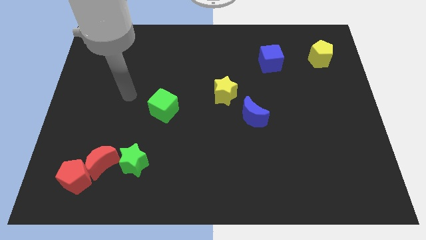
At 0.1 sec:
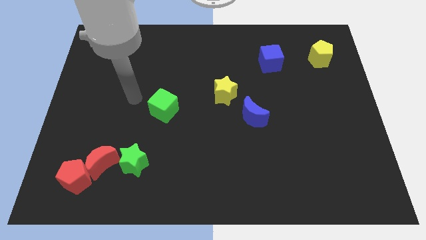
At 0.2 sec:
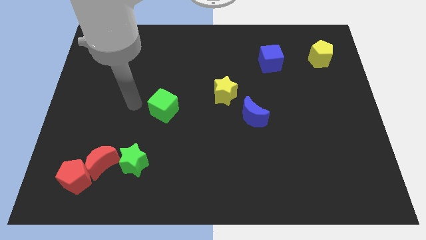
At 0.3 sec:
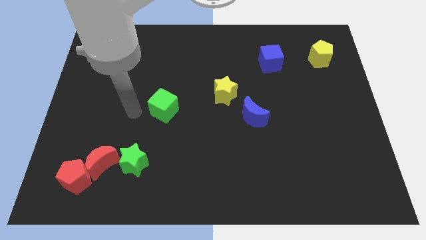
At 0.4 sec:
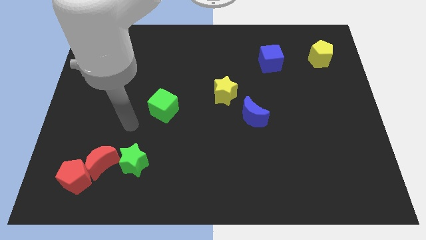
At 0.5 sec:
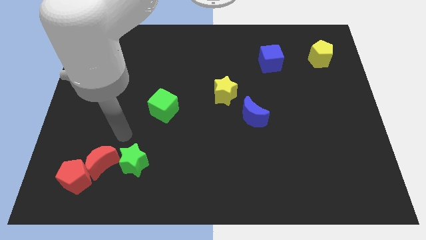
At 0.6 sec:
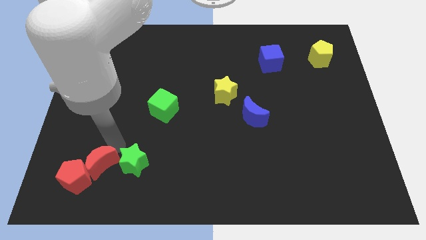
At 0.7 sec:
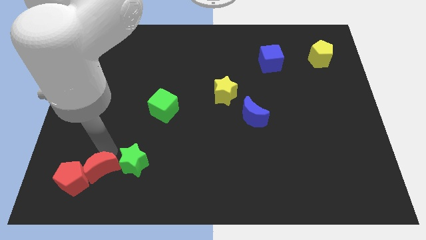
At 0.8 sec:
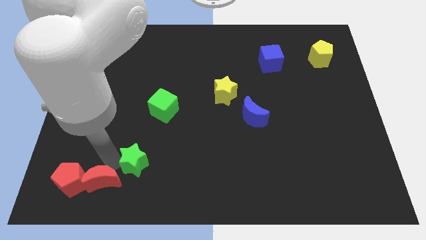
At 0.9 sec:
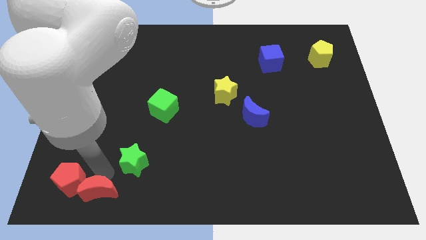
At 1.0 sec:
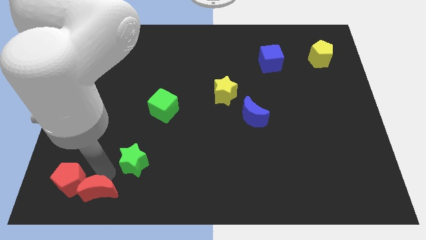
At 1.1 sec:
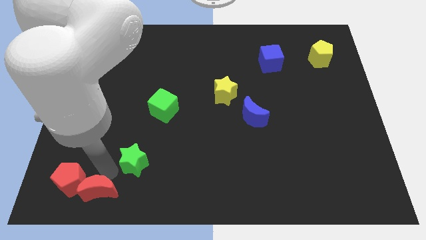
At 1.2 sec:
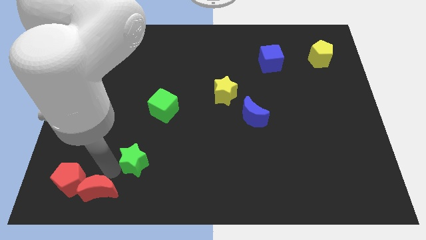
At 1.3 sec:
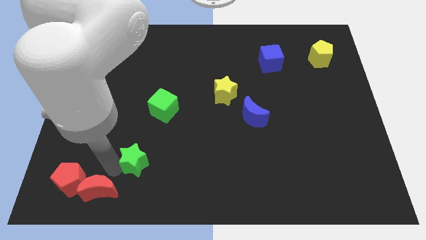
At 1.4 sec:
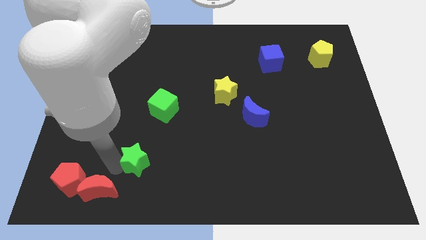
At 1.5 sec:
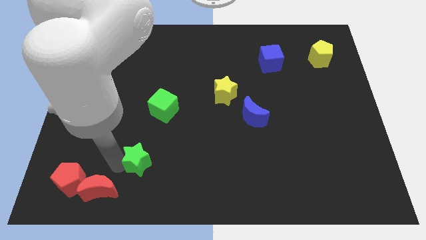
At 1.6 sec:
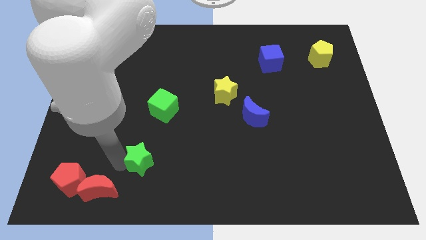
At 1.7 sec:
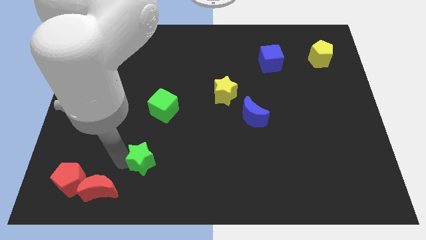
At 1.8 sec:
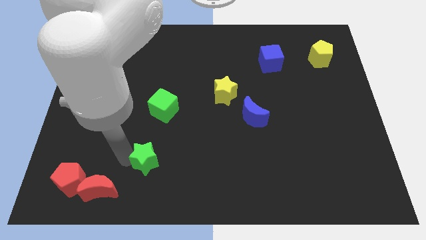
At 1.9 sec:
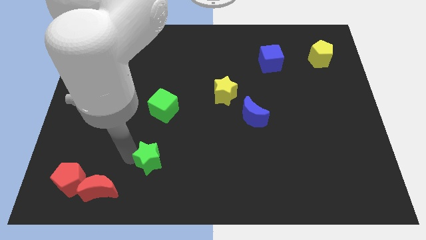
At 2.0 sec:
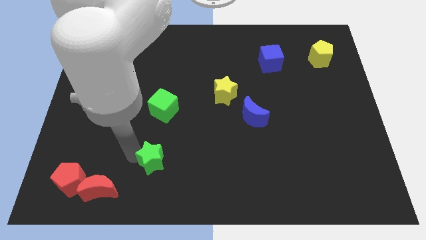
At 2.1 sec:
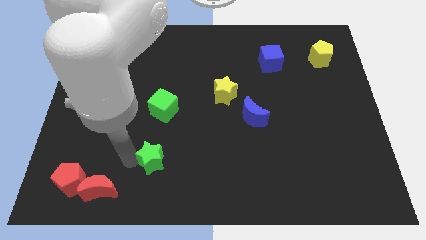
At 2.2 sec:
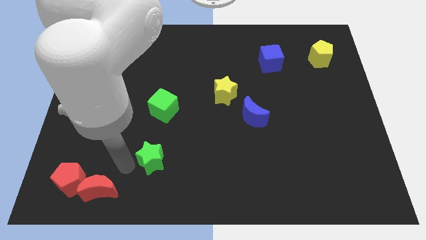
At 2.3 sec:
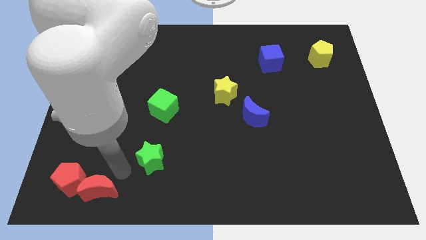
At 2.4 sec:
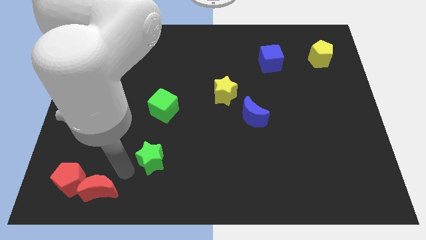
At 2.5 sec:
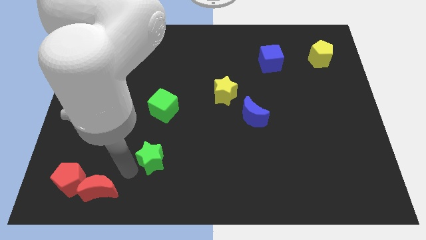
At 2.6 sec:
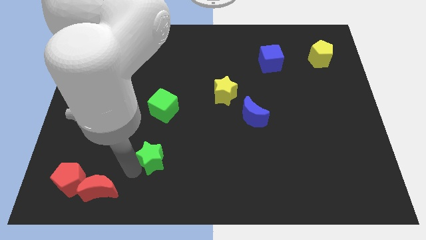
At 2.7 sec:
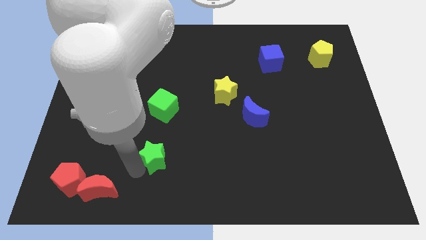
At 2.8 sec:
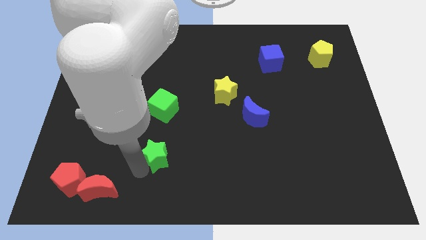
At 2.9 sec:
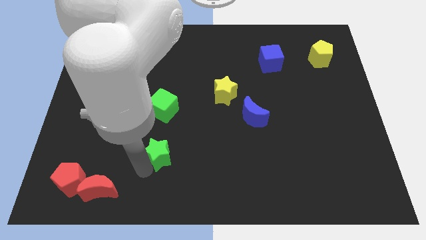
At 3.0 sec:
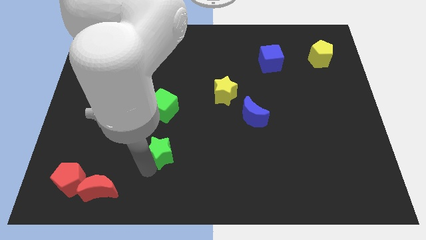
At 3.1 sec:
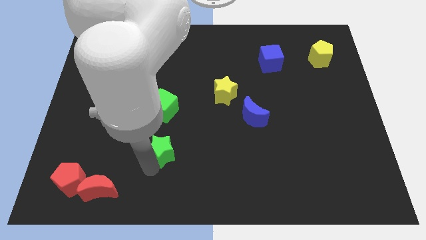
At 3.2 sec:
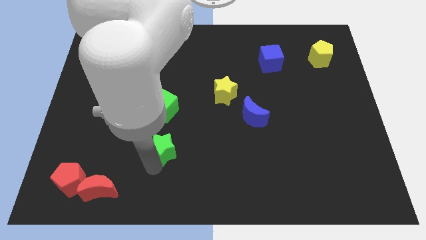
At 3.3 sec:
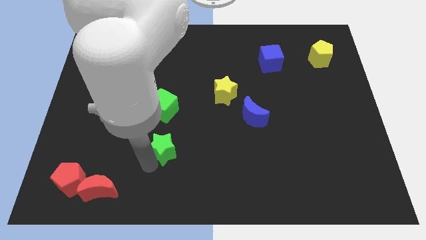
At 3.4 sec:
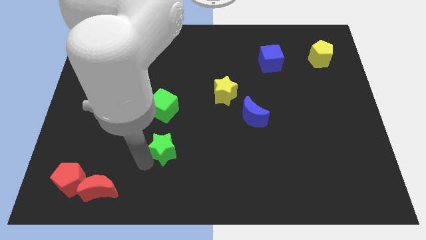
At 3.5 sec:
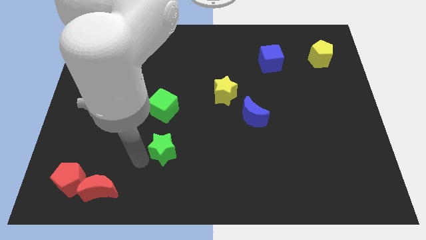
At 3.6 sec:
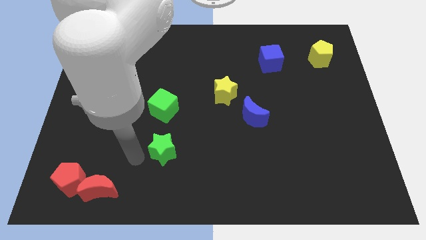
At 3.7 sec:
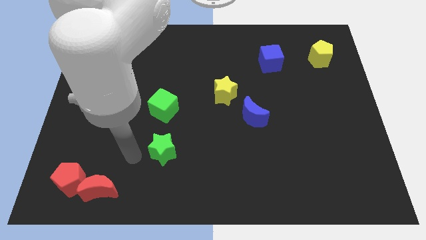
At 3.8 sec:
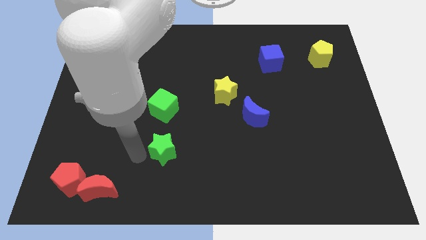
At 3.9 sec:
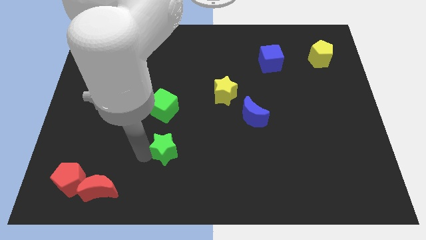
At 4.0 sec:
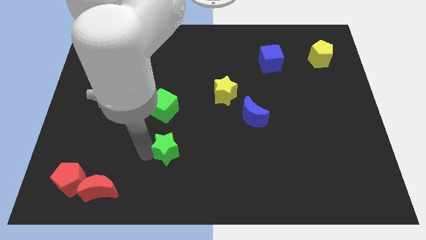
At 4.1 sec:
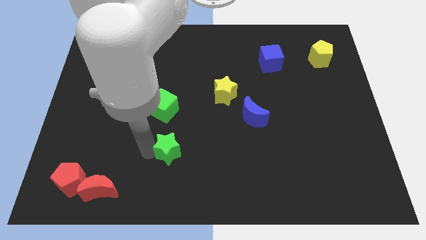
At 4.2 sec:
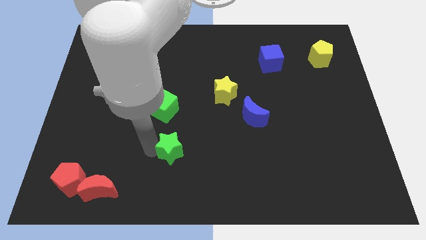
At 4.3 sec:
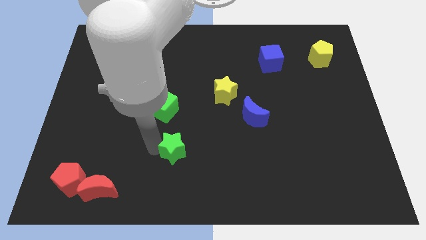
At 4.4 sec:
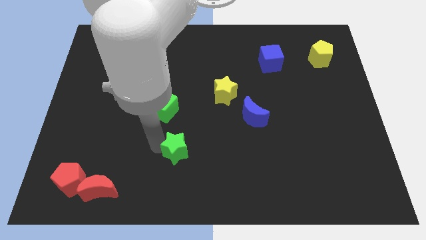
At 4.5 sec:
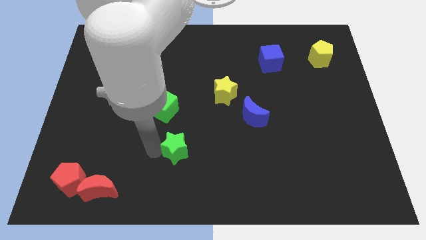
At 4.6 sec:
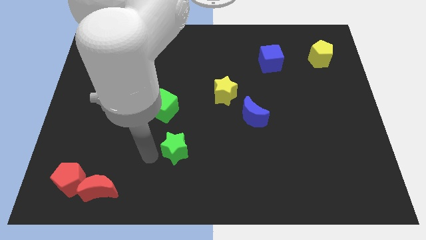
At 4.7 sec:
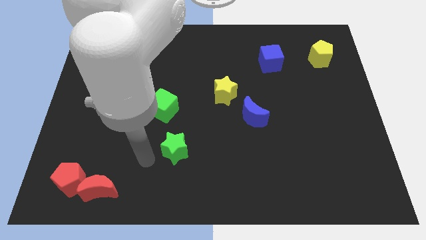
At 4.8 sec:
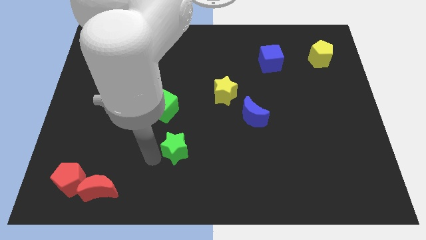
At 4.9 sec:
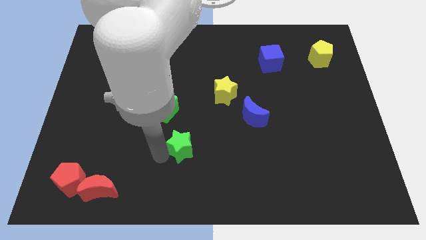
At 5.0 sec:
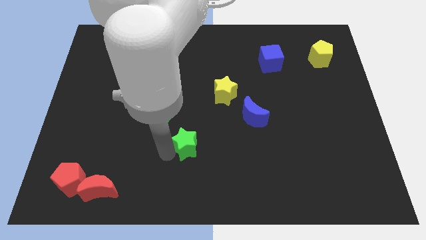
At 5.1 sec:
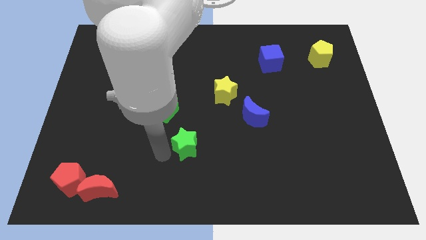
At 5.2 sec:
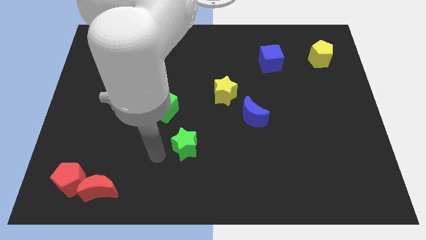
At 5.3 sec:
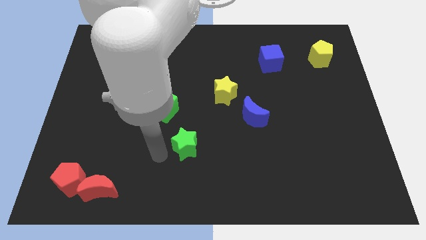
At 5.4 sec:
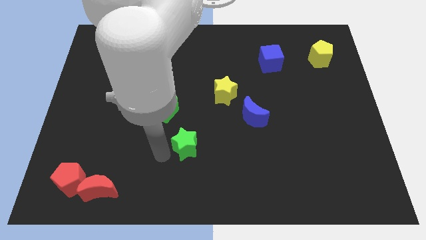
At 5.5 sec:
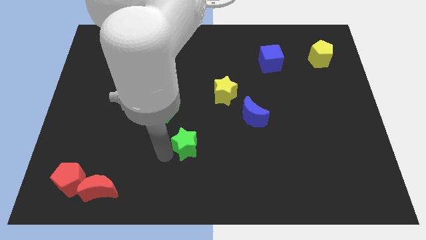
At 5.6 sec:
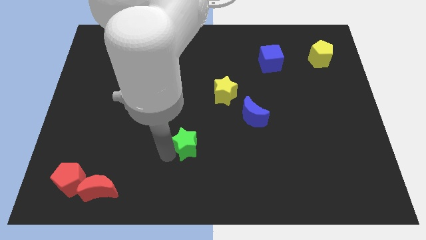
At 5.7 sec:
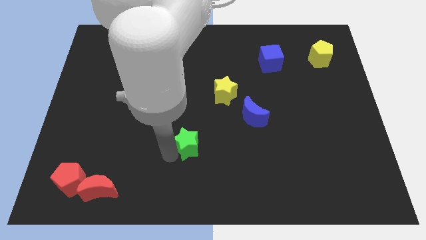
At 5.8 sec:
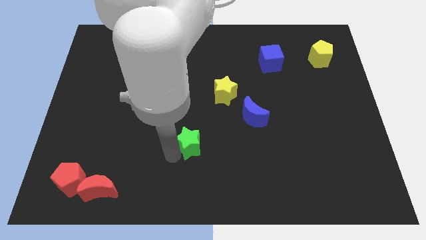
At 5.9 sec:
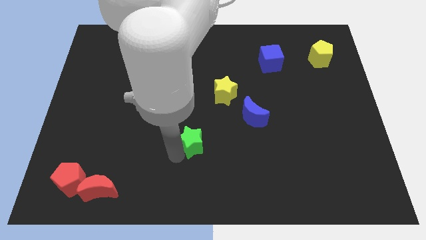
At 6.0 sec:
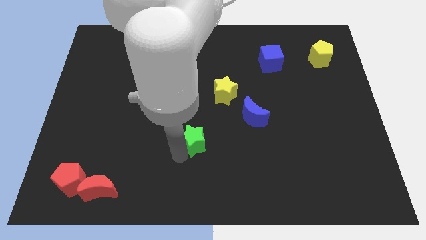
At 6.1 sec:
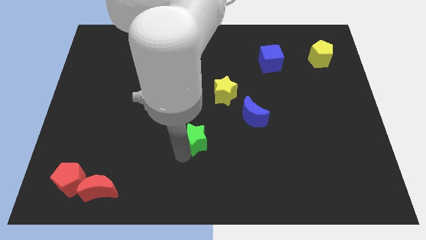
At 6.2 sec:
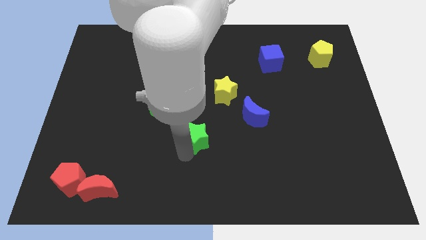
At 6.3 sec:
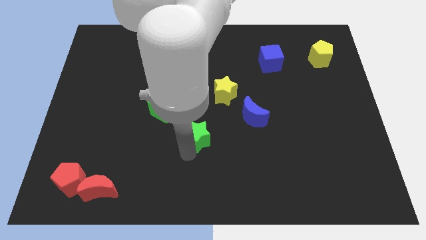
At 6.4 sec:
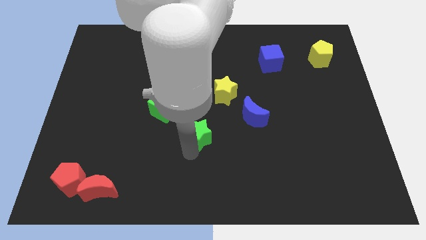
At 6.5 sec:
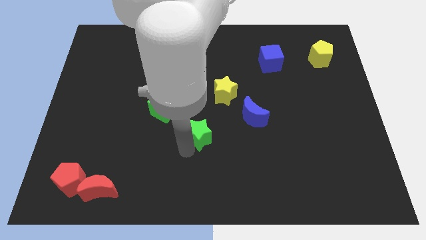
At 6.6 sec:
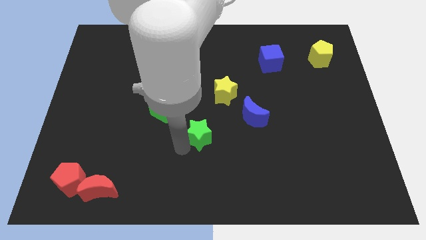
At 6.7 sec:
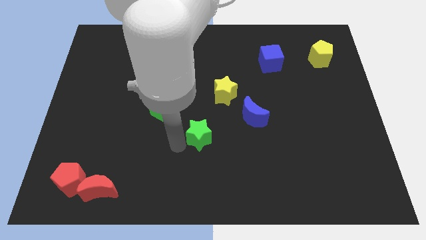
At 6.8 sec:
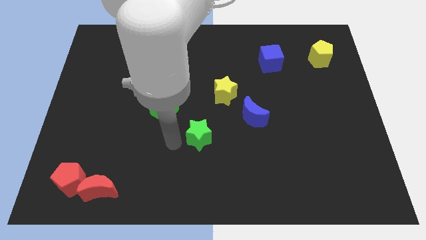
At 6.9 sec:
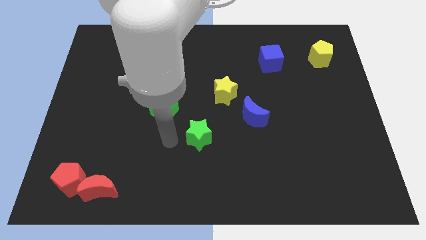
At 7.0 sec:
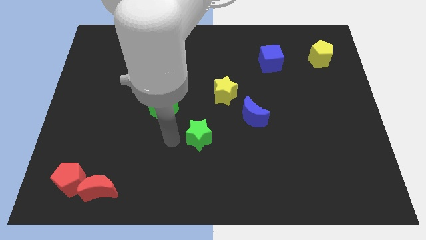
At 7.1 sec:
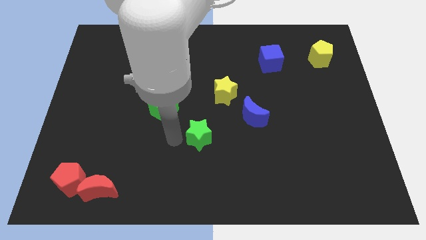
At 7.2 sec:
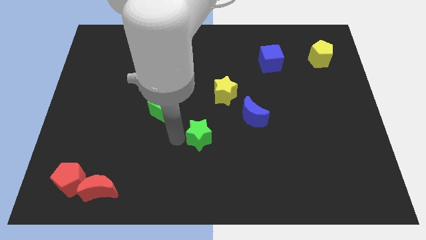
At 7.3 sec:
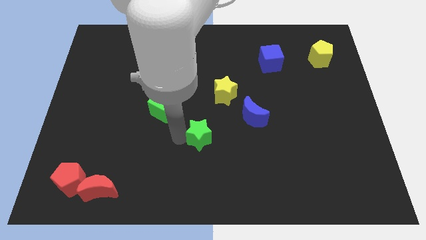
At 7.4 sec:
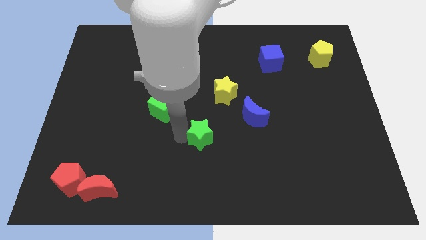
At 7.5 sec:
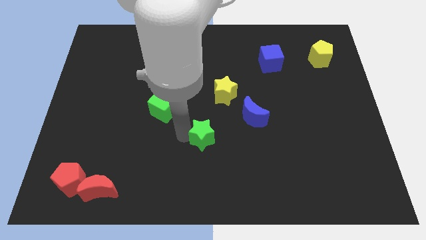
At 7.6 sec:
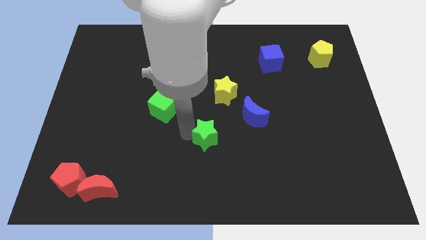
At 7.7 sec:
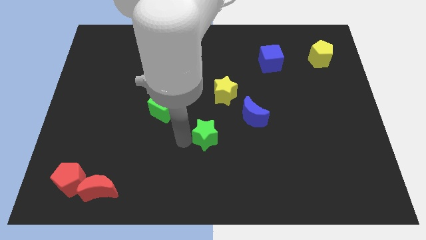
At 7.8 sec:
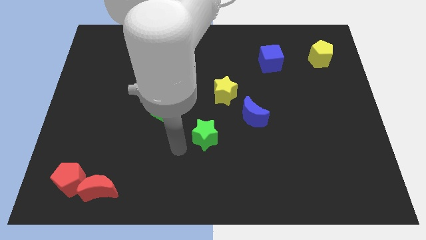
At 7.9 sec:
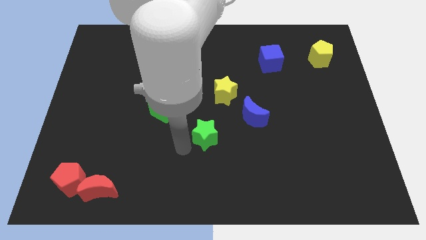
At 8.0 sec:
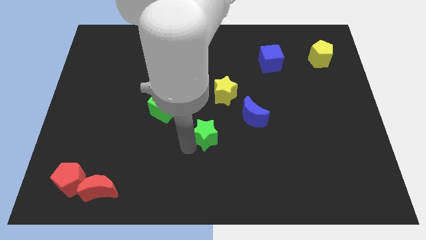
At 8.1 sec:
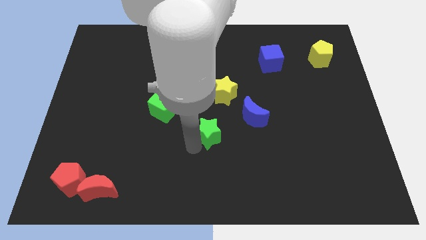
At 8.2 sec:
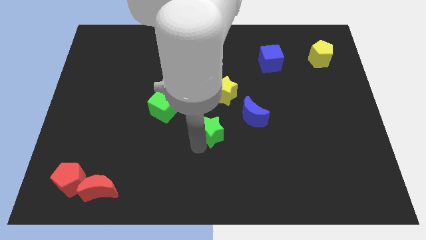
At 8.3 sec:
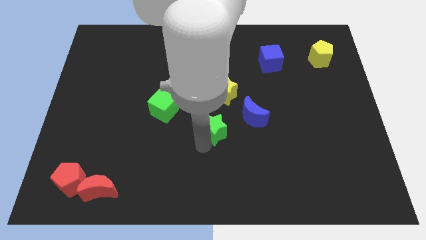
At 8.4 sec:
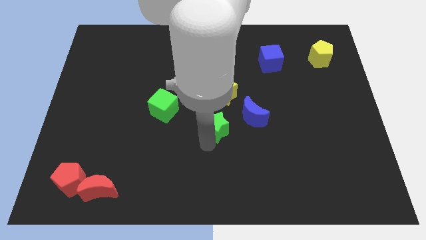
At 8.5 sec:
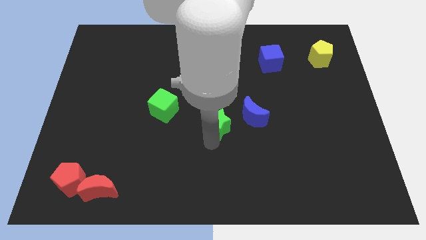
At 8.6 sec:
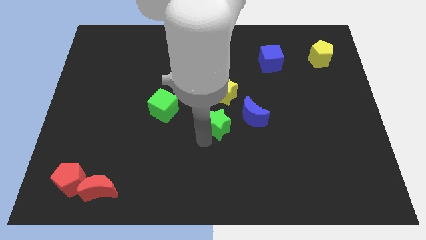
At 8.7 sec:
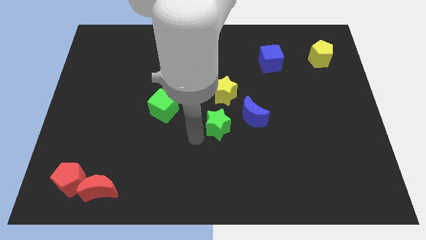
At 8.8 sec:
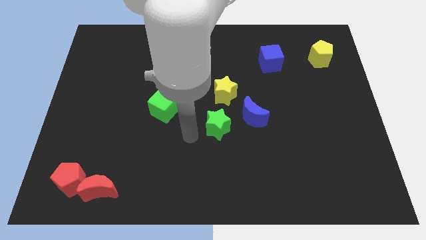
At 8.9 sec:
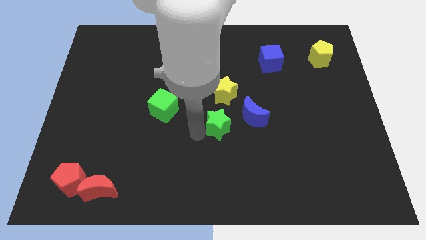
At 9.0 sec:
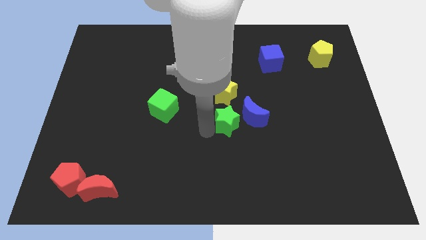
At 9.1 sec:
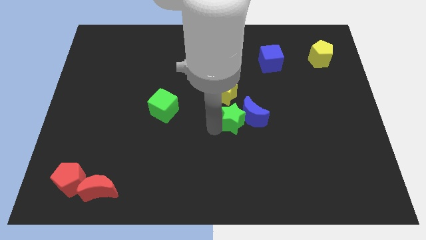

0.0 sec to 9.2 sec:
put the green star to the blue moon
